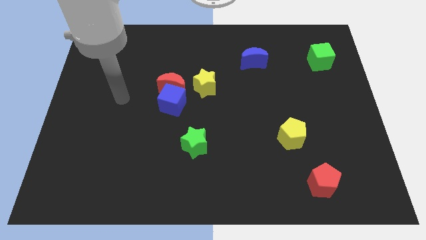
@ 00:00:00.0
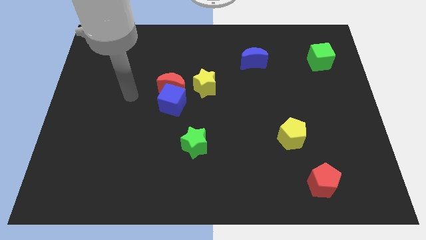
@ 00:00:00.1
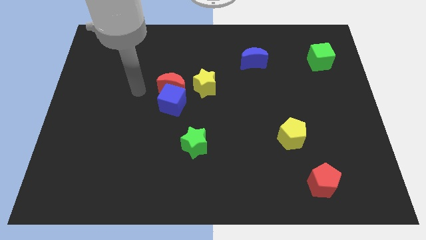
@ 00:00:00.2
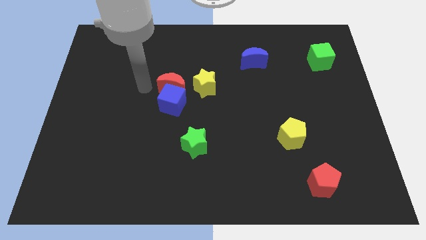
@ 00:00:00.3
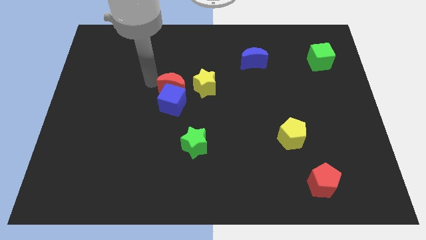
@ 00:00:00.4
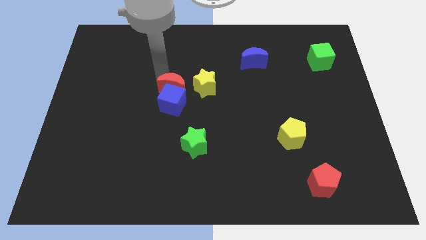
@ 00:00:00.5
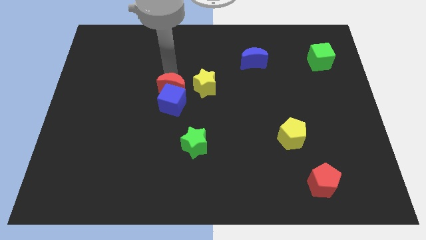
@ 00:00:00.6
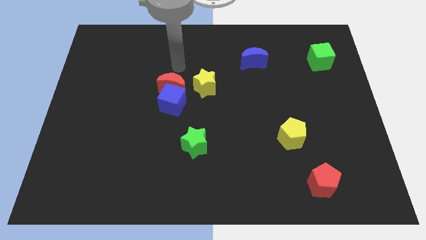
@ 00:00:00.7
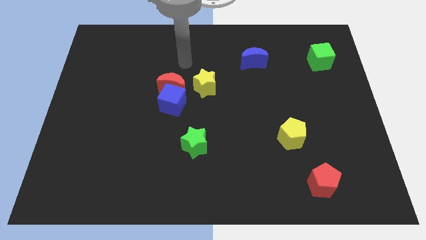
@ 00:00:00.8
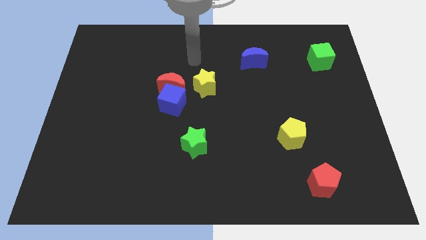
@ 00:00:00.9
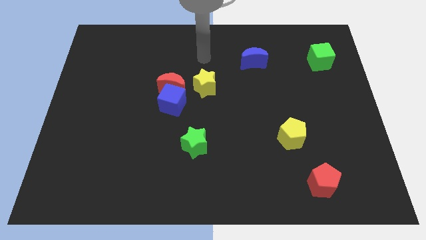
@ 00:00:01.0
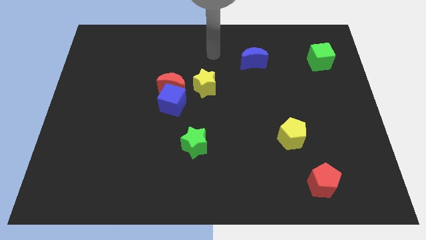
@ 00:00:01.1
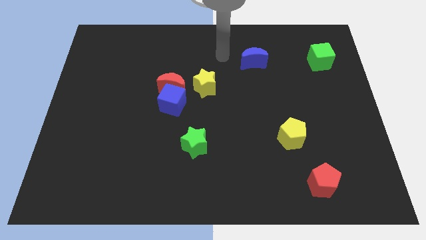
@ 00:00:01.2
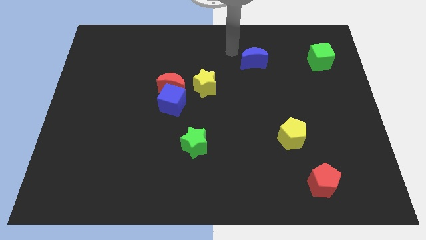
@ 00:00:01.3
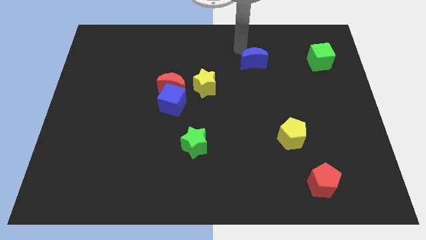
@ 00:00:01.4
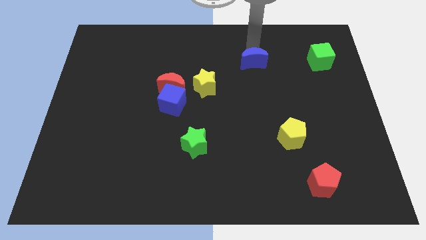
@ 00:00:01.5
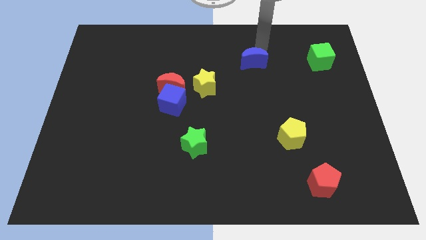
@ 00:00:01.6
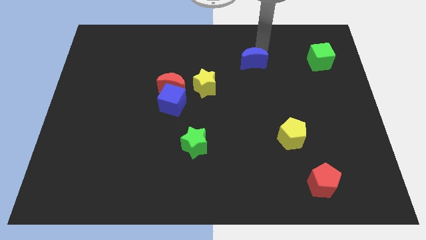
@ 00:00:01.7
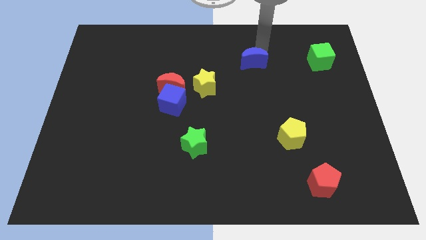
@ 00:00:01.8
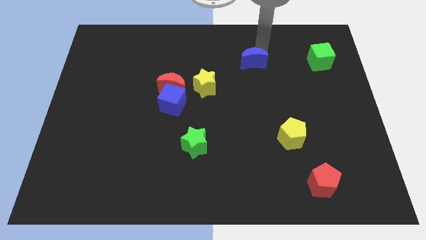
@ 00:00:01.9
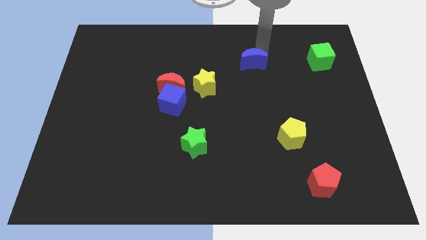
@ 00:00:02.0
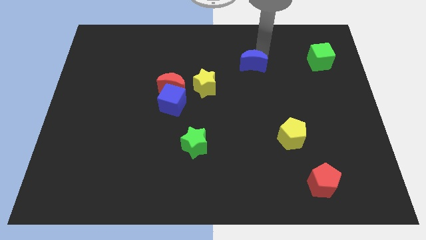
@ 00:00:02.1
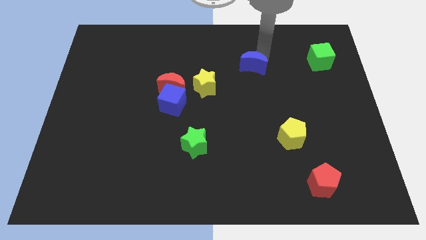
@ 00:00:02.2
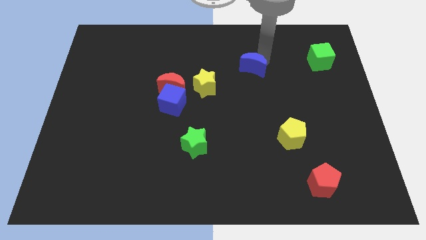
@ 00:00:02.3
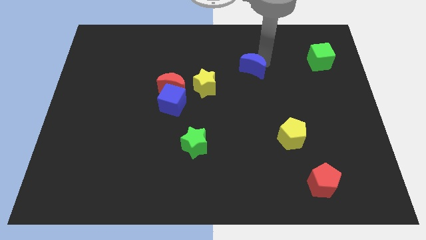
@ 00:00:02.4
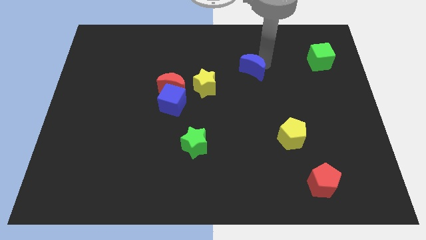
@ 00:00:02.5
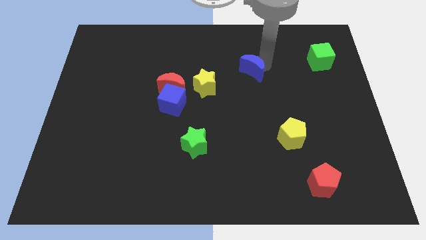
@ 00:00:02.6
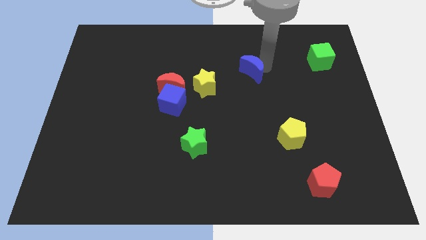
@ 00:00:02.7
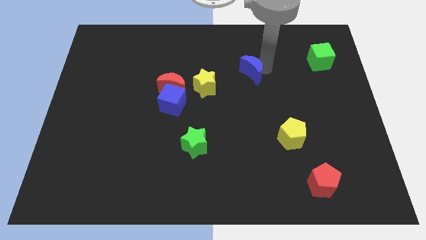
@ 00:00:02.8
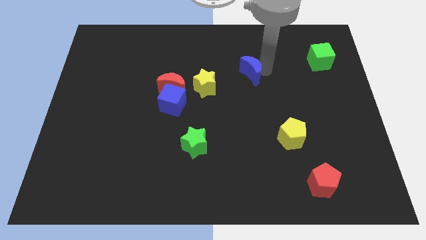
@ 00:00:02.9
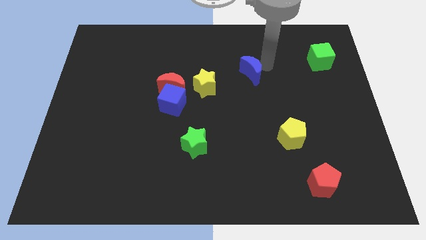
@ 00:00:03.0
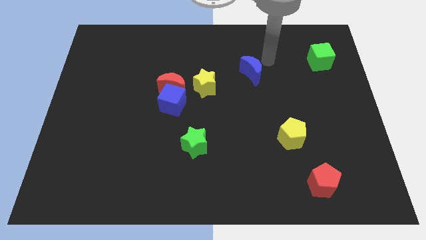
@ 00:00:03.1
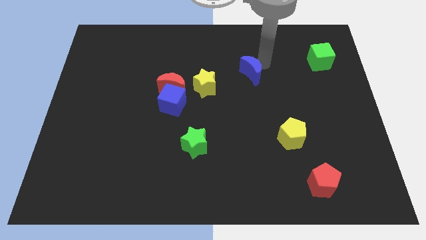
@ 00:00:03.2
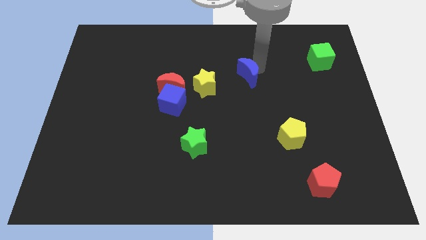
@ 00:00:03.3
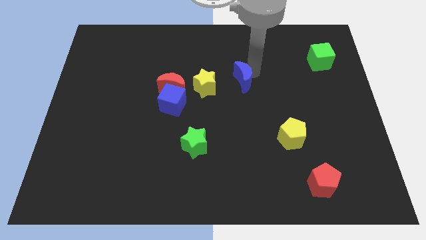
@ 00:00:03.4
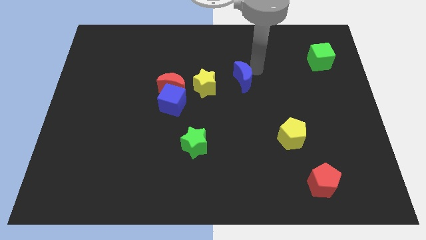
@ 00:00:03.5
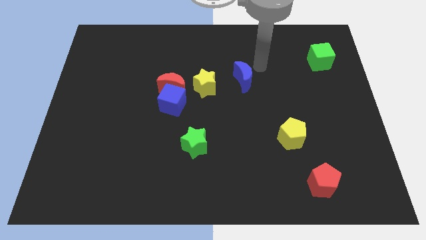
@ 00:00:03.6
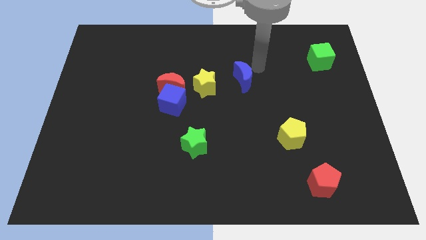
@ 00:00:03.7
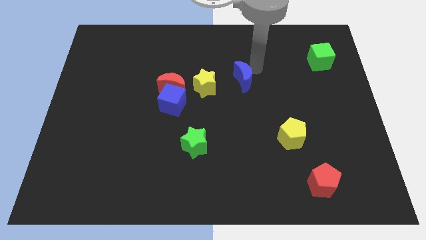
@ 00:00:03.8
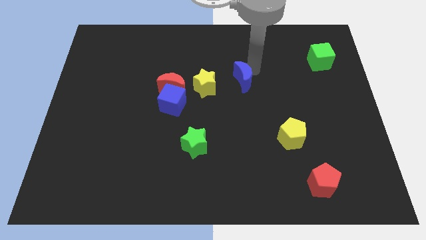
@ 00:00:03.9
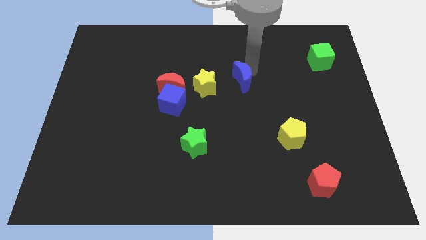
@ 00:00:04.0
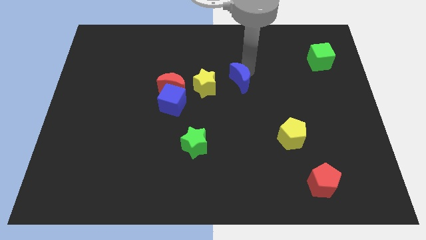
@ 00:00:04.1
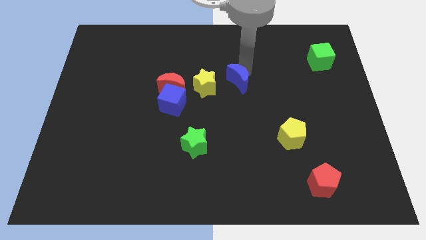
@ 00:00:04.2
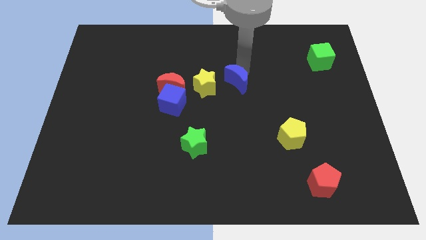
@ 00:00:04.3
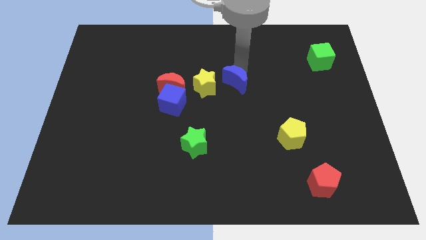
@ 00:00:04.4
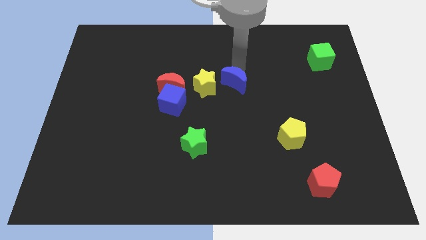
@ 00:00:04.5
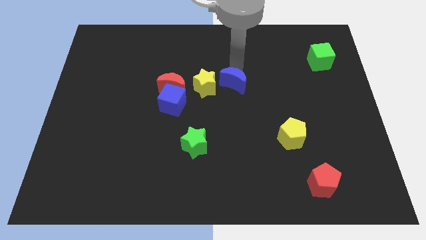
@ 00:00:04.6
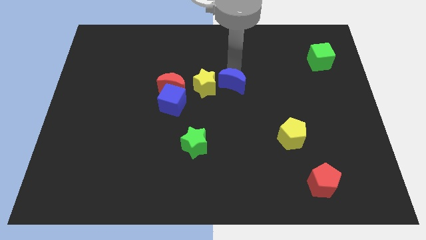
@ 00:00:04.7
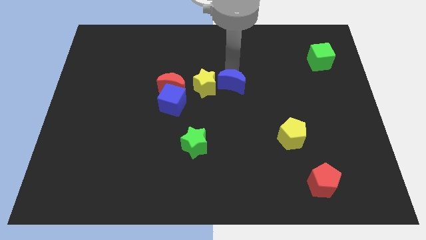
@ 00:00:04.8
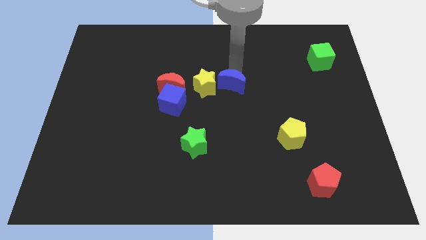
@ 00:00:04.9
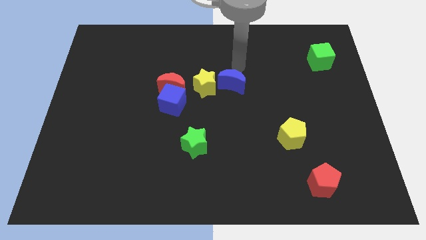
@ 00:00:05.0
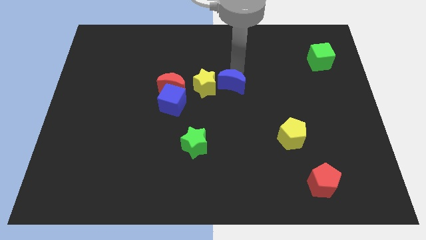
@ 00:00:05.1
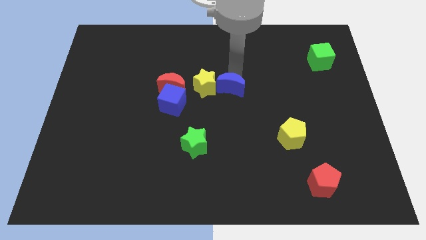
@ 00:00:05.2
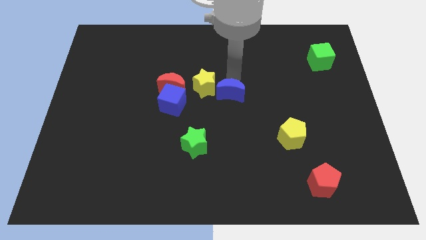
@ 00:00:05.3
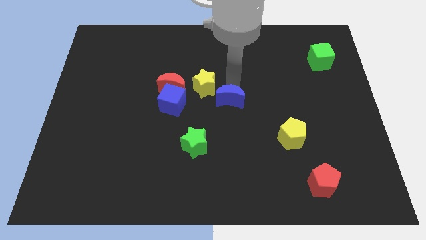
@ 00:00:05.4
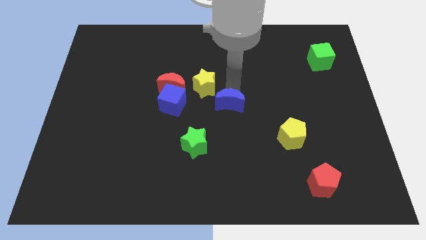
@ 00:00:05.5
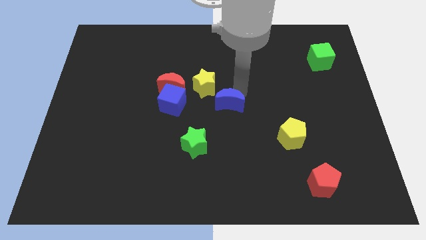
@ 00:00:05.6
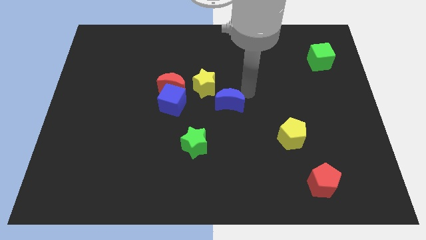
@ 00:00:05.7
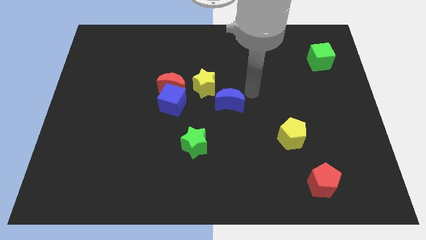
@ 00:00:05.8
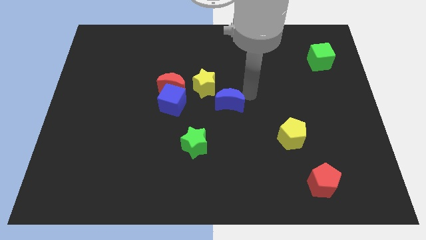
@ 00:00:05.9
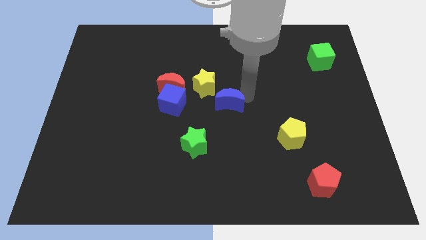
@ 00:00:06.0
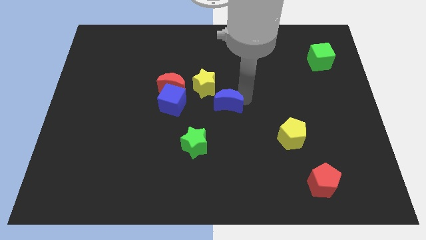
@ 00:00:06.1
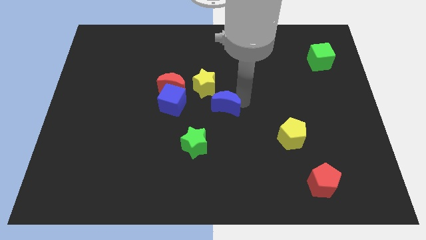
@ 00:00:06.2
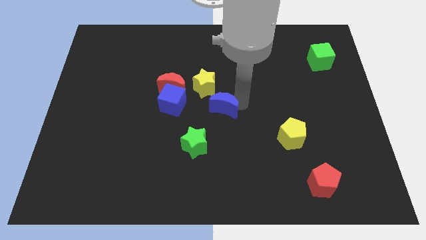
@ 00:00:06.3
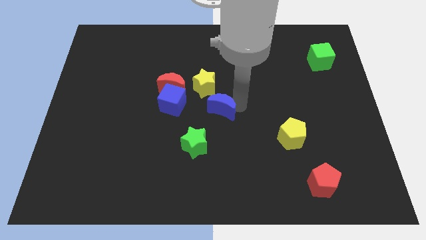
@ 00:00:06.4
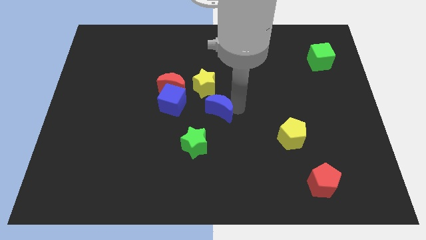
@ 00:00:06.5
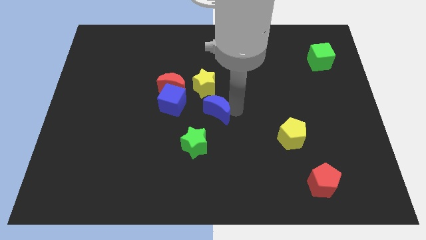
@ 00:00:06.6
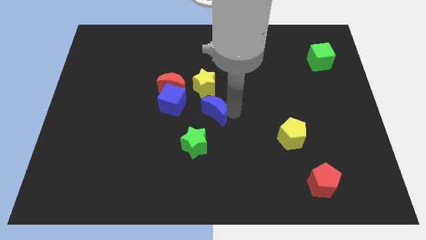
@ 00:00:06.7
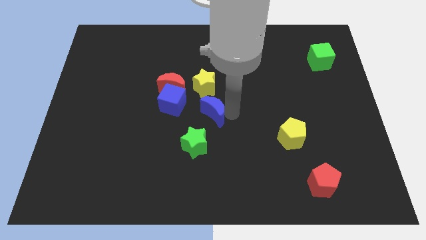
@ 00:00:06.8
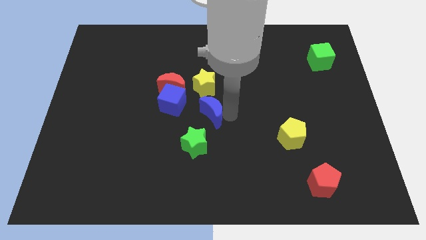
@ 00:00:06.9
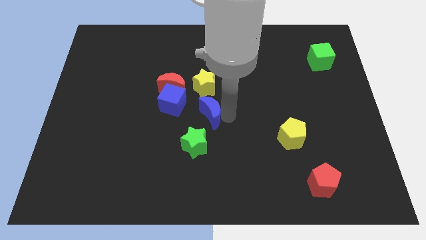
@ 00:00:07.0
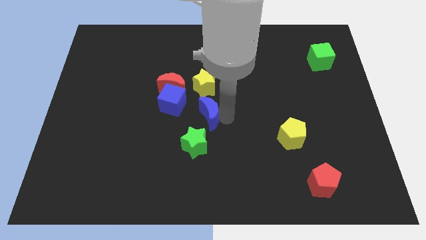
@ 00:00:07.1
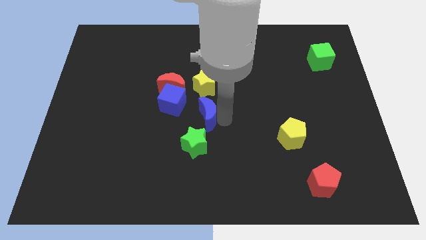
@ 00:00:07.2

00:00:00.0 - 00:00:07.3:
slide the blue moon diagonally down and to the left

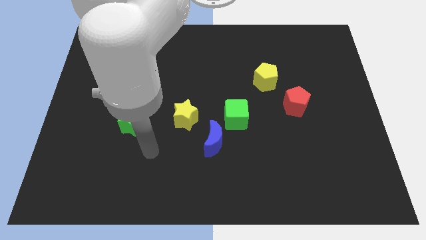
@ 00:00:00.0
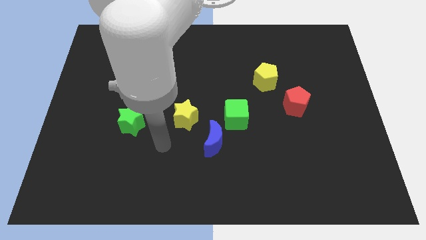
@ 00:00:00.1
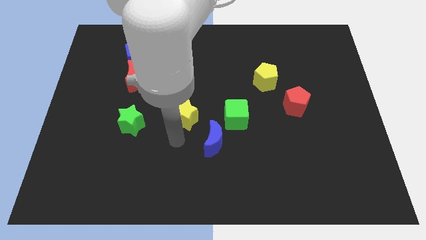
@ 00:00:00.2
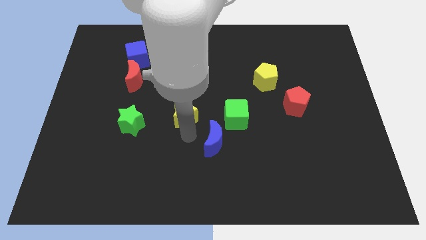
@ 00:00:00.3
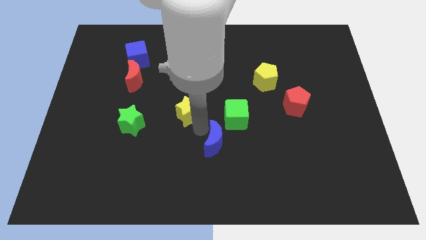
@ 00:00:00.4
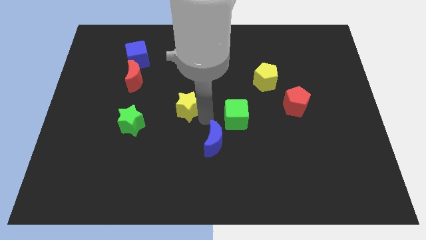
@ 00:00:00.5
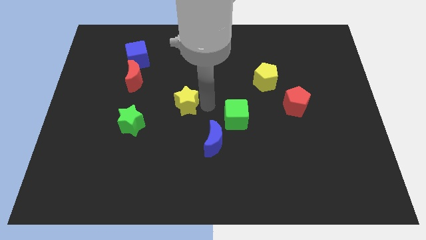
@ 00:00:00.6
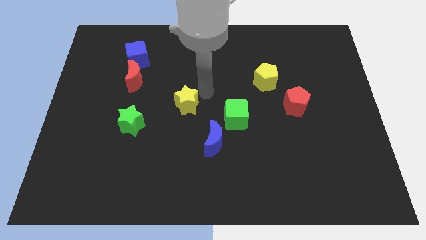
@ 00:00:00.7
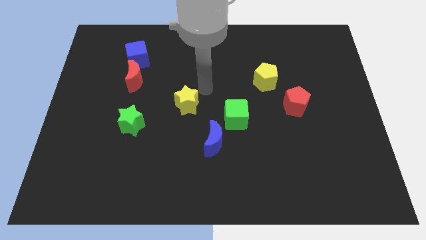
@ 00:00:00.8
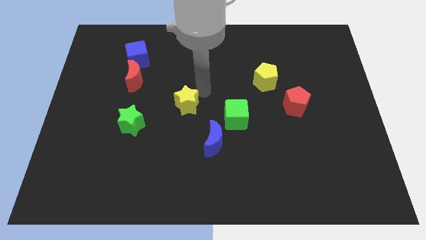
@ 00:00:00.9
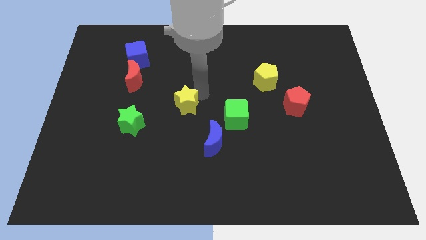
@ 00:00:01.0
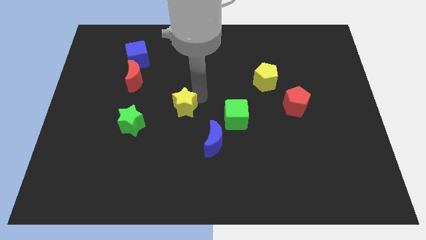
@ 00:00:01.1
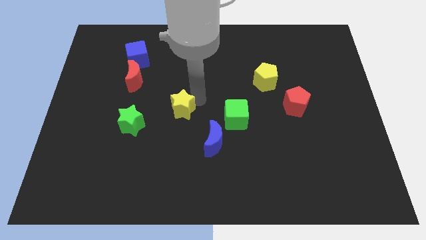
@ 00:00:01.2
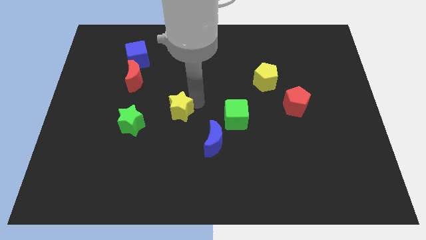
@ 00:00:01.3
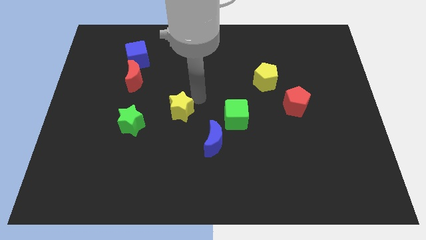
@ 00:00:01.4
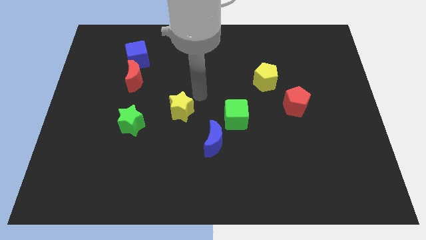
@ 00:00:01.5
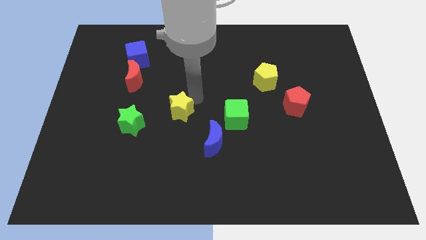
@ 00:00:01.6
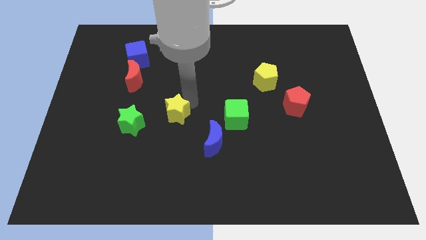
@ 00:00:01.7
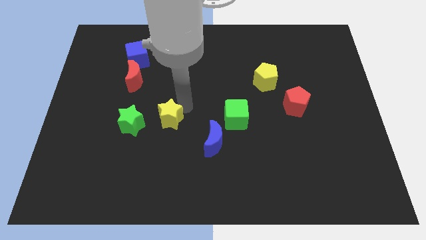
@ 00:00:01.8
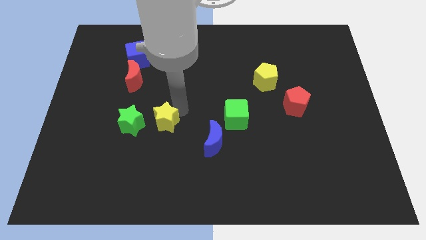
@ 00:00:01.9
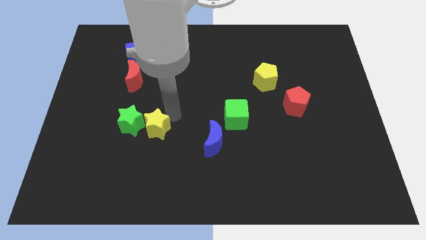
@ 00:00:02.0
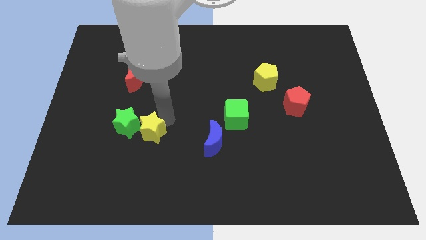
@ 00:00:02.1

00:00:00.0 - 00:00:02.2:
move the yellow star downwards and to the left diagonally a little bit
